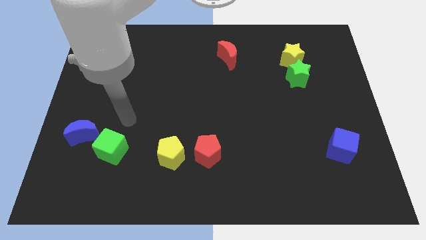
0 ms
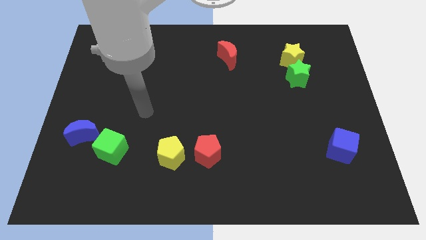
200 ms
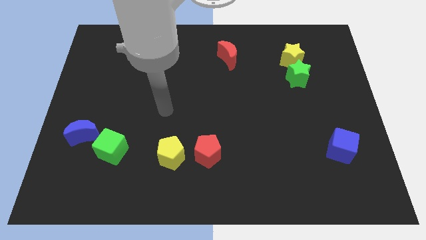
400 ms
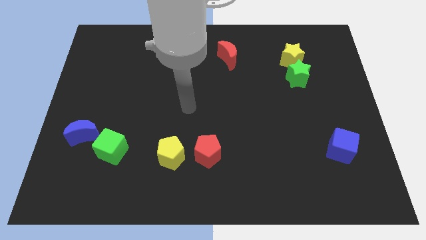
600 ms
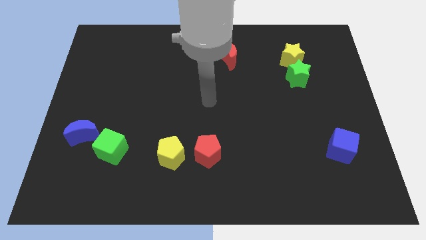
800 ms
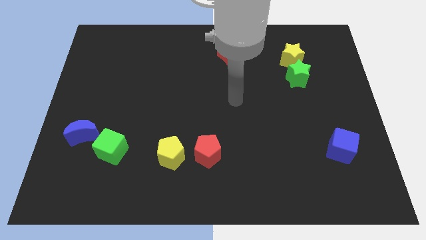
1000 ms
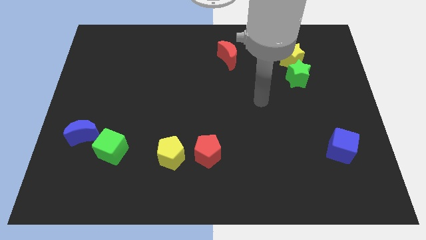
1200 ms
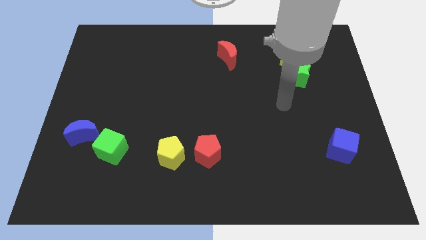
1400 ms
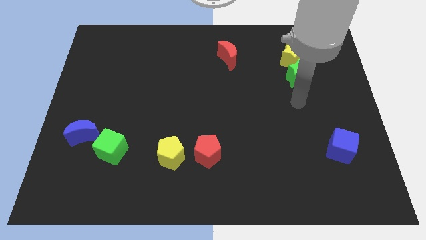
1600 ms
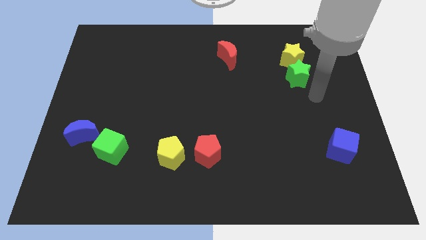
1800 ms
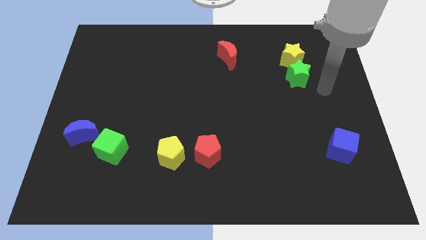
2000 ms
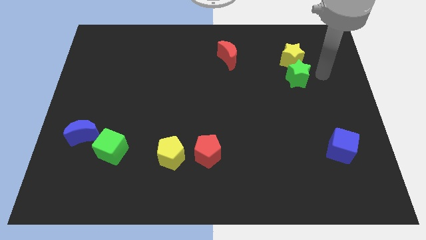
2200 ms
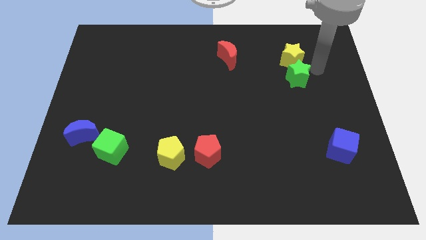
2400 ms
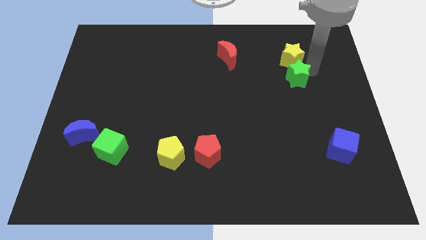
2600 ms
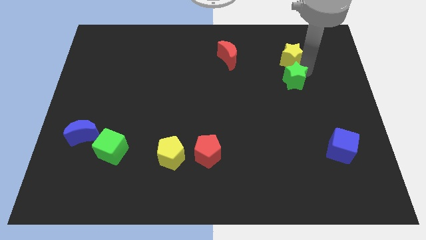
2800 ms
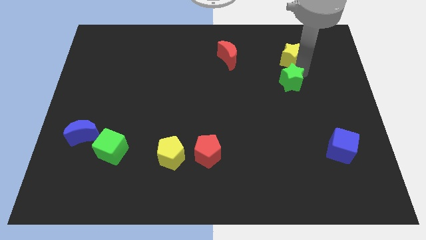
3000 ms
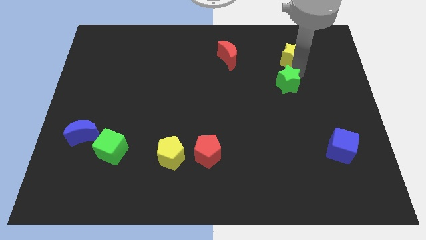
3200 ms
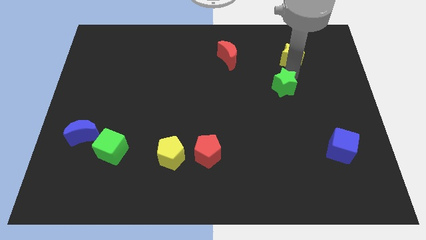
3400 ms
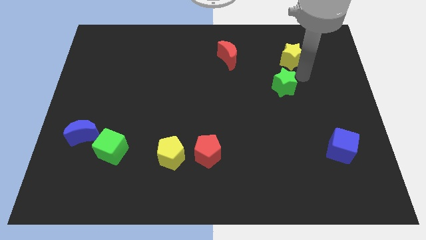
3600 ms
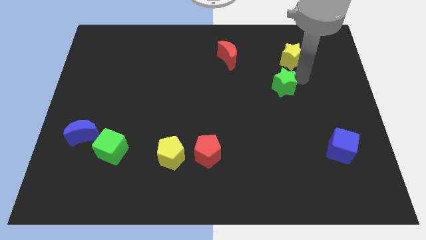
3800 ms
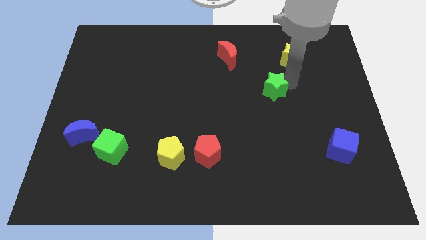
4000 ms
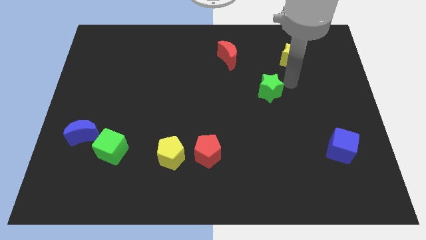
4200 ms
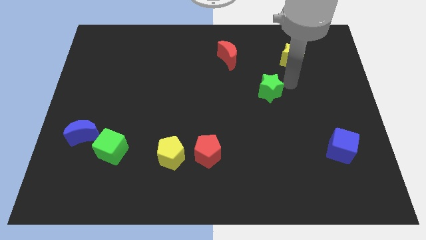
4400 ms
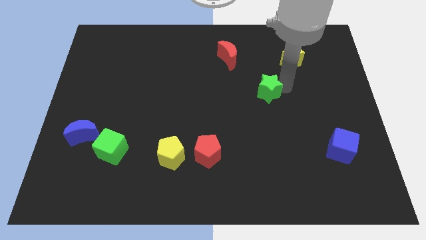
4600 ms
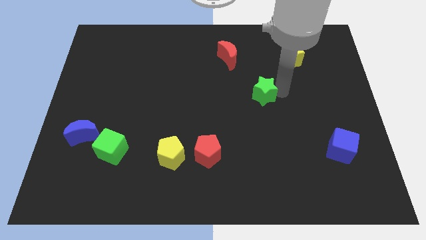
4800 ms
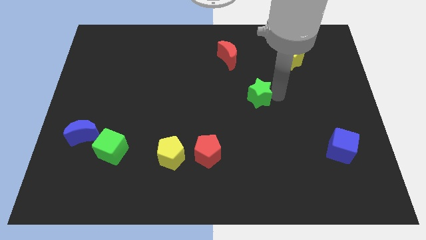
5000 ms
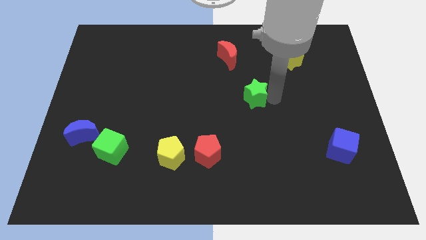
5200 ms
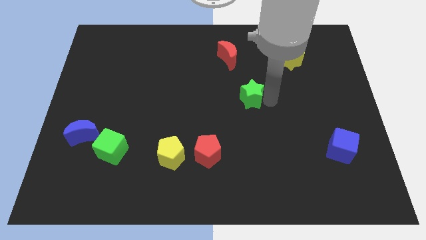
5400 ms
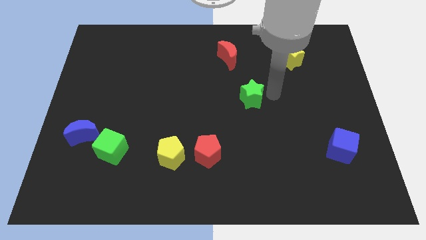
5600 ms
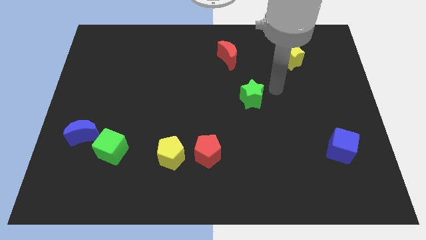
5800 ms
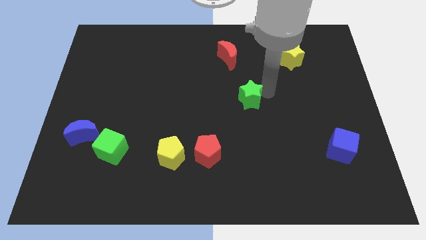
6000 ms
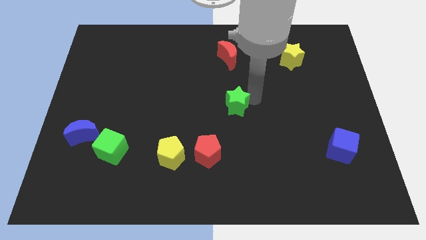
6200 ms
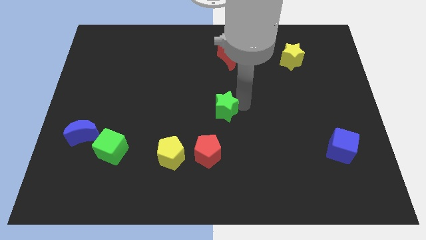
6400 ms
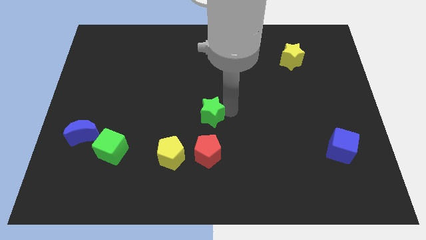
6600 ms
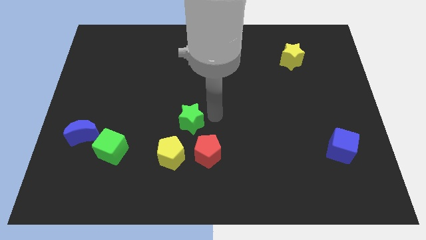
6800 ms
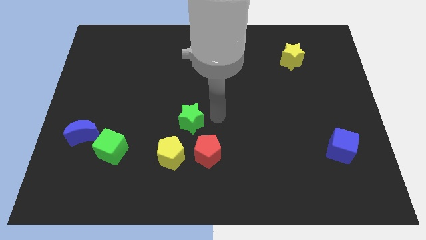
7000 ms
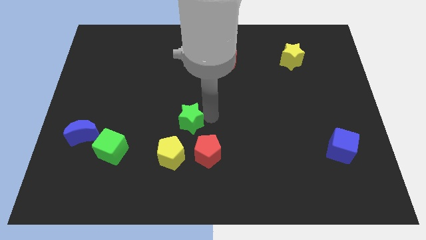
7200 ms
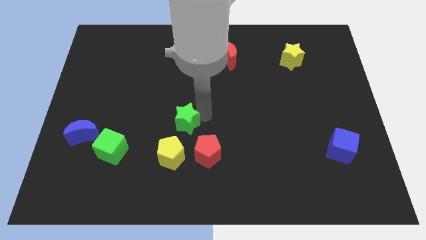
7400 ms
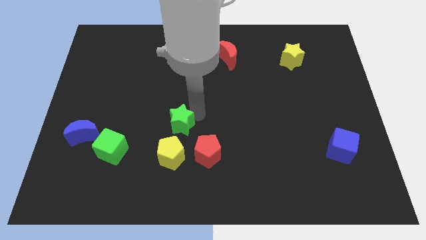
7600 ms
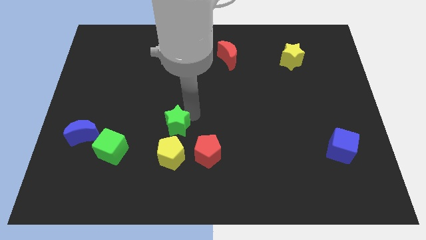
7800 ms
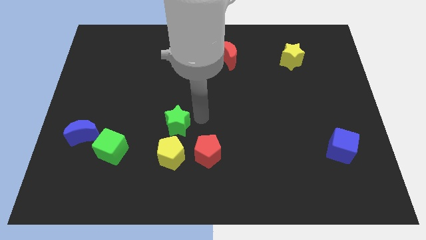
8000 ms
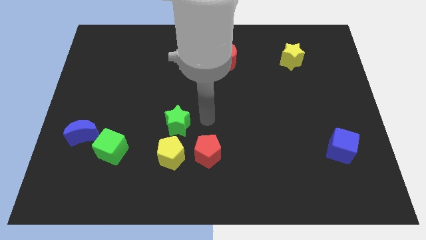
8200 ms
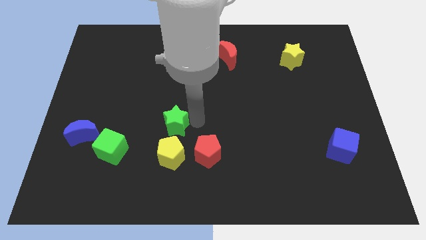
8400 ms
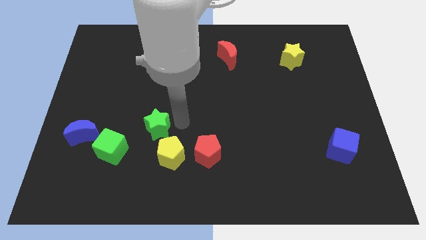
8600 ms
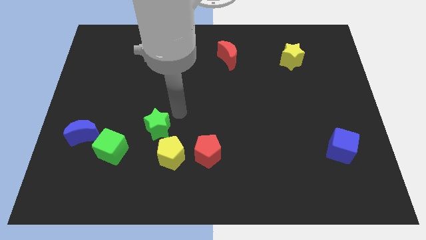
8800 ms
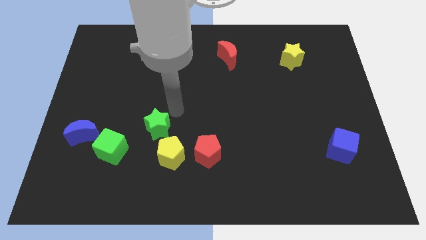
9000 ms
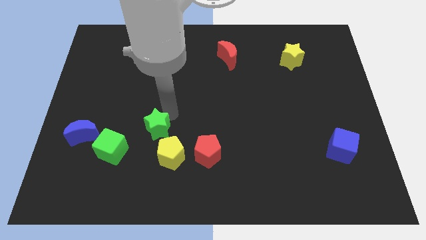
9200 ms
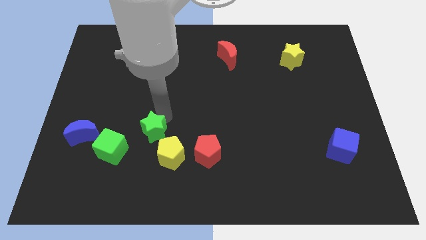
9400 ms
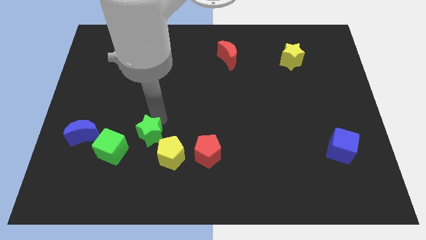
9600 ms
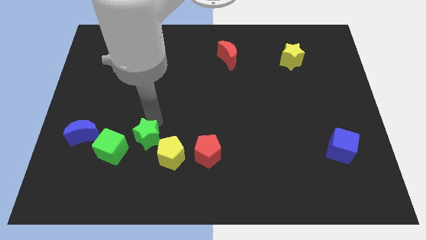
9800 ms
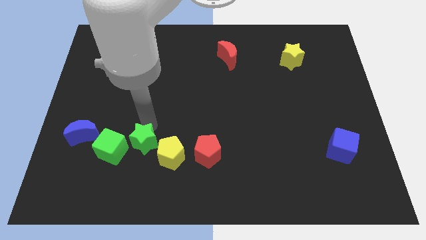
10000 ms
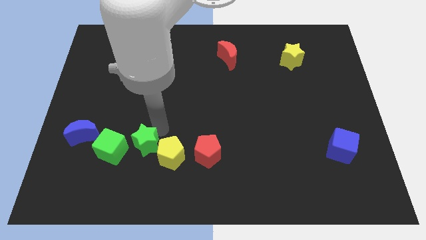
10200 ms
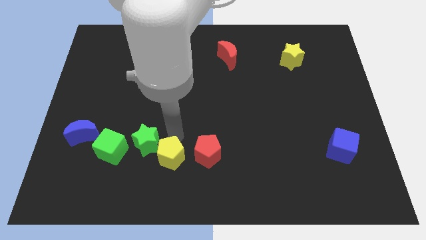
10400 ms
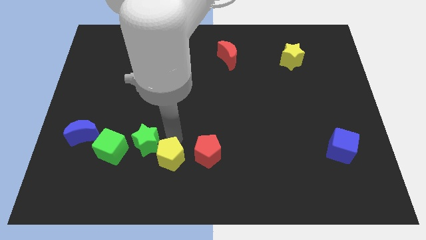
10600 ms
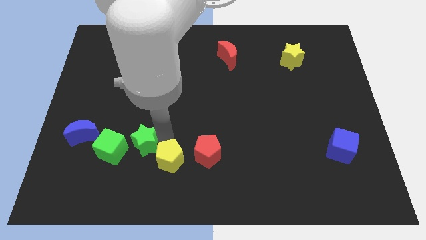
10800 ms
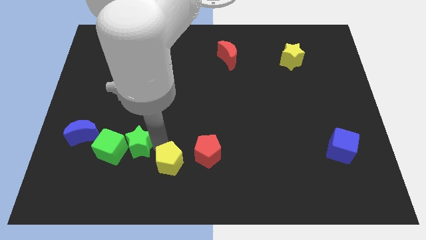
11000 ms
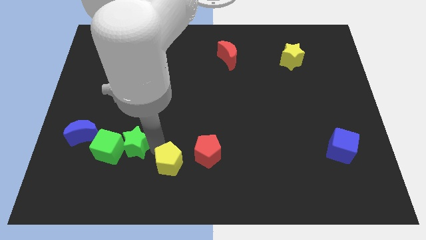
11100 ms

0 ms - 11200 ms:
move the green star towards the green cube

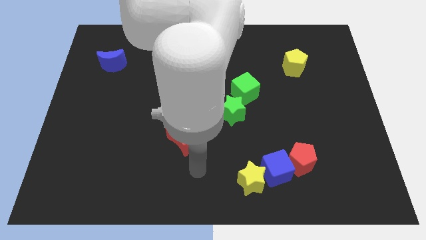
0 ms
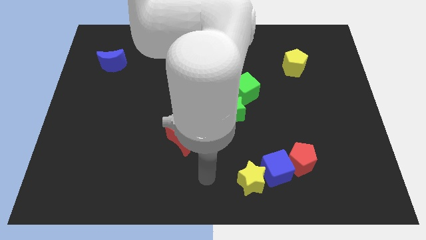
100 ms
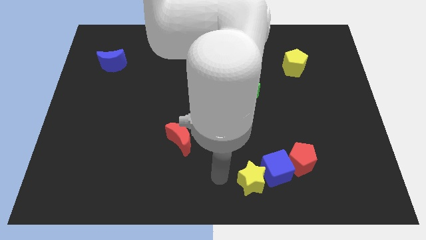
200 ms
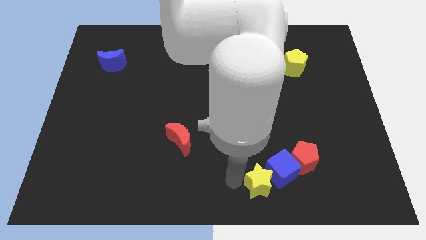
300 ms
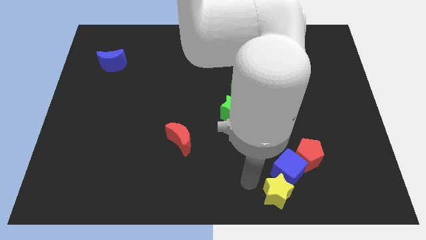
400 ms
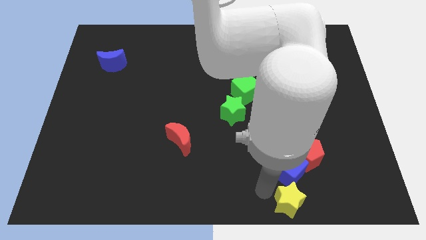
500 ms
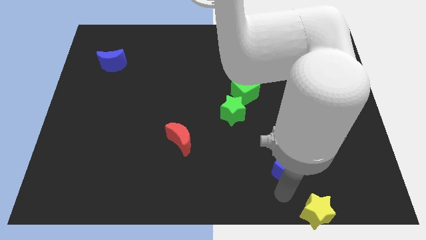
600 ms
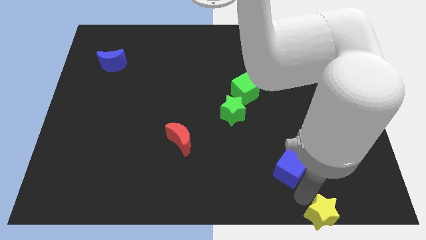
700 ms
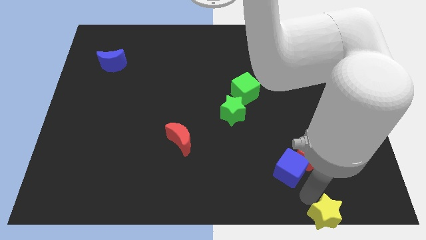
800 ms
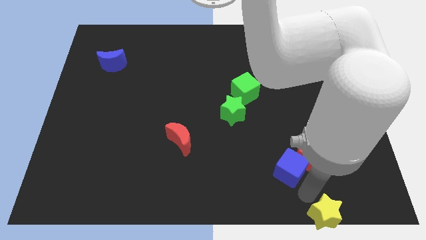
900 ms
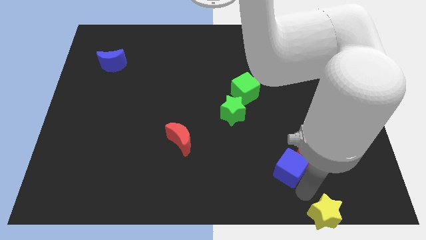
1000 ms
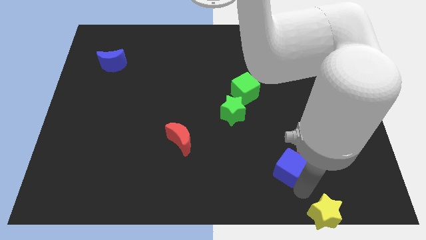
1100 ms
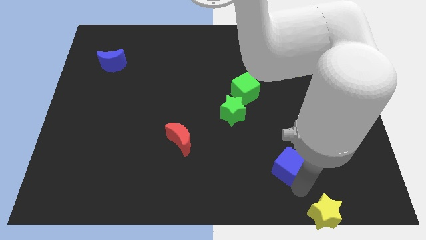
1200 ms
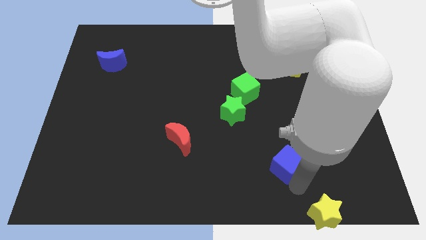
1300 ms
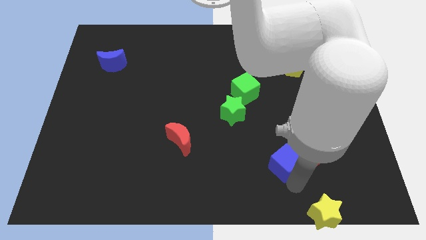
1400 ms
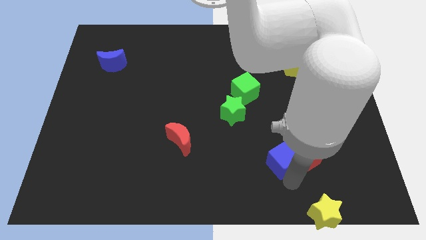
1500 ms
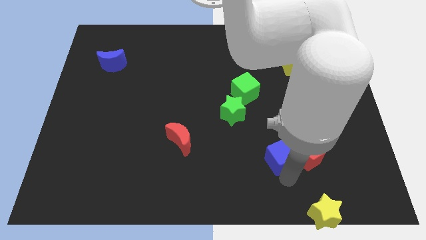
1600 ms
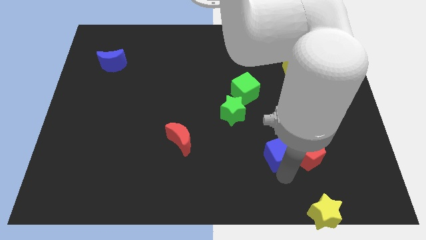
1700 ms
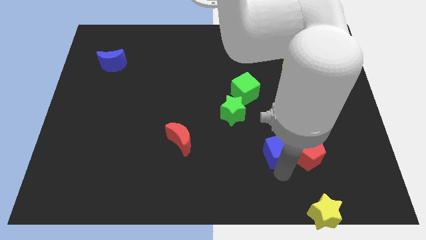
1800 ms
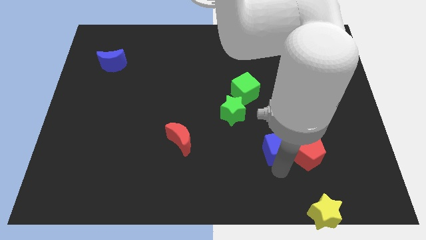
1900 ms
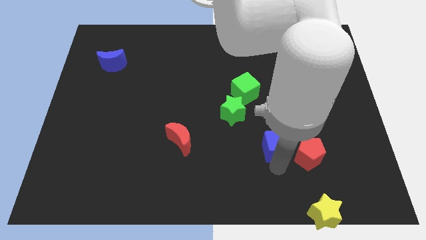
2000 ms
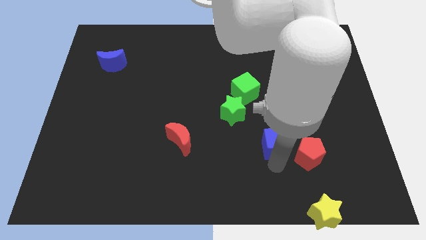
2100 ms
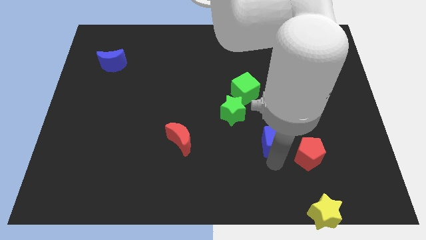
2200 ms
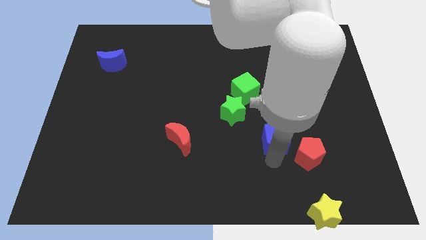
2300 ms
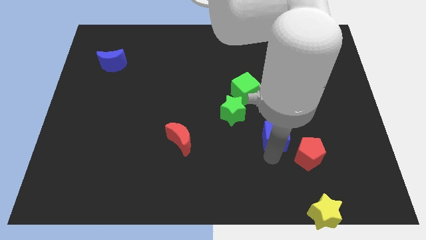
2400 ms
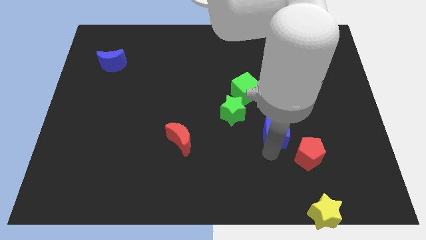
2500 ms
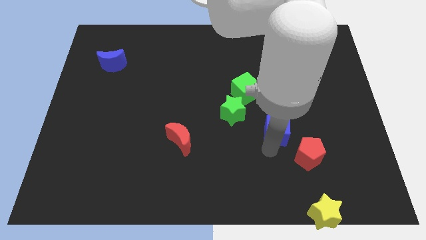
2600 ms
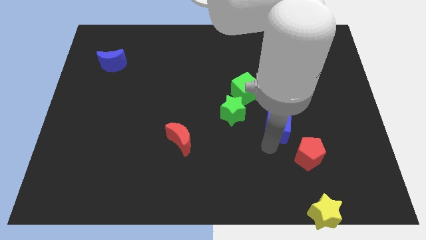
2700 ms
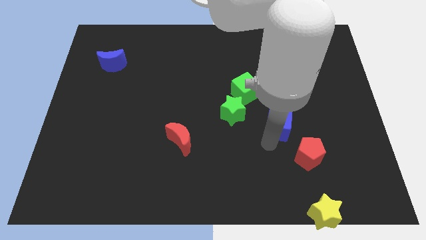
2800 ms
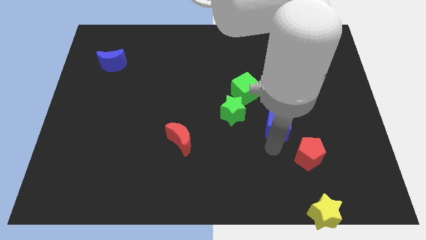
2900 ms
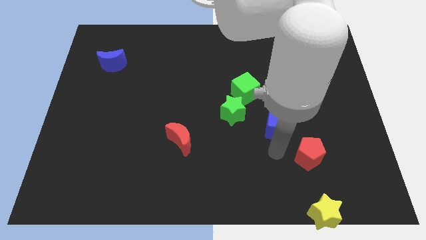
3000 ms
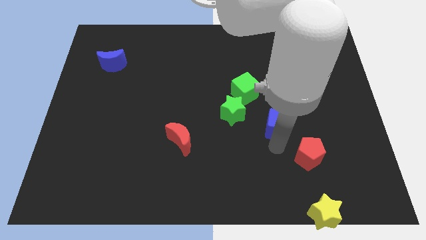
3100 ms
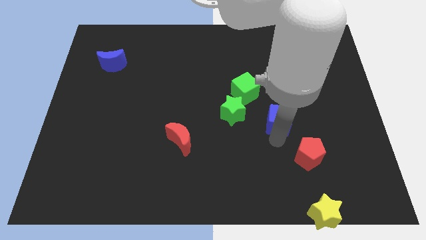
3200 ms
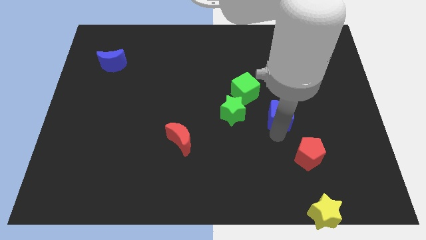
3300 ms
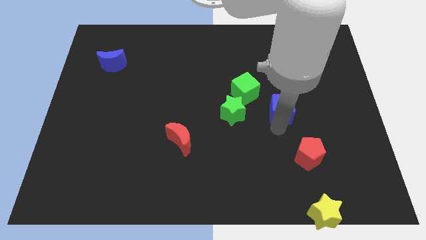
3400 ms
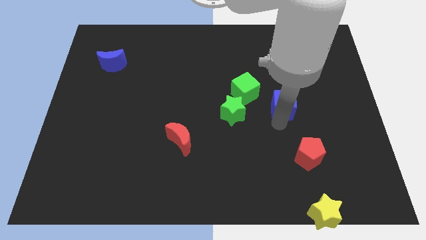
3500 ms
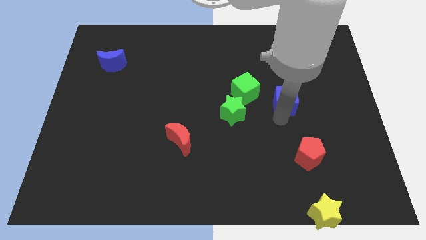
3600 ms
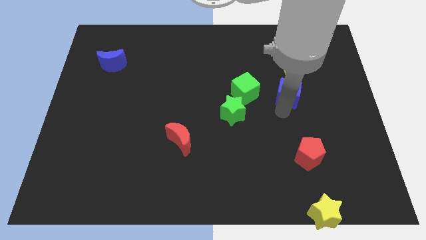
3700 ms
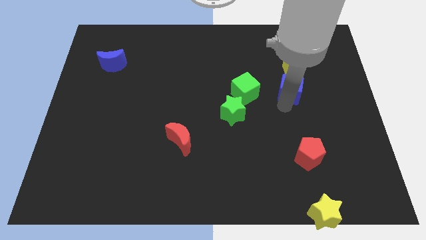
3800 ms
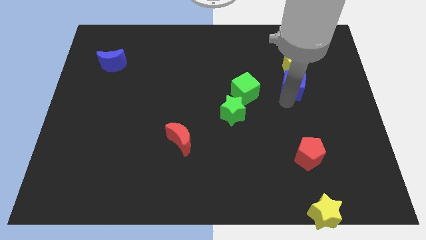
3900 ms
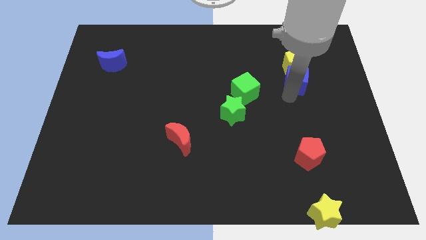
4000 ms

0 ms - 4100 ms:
push the blue cube next to the yellow pentagon
